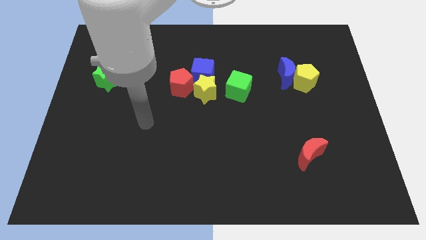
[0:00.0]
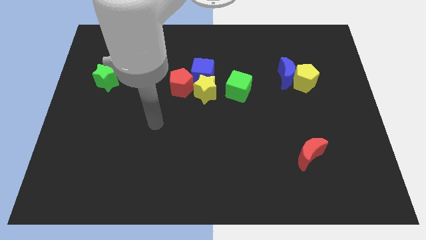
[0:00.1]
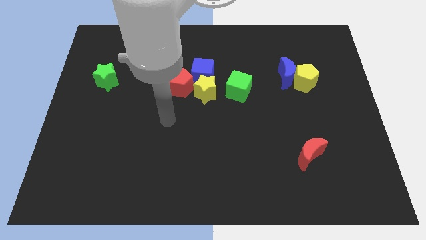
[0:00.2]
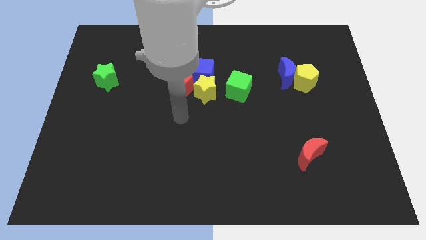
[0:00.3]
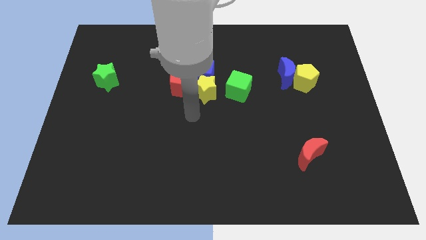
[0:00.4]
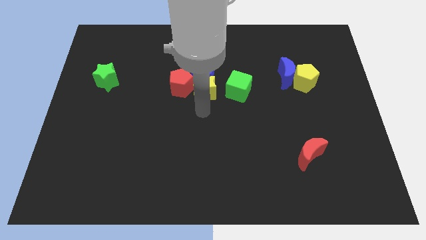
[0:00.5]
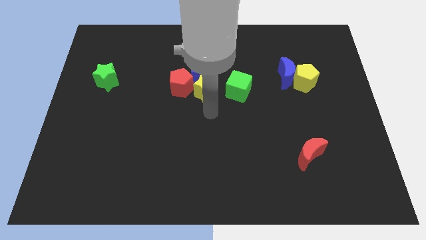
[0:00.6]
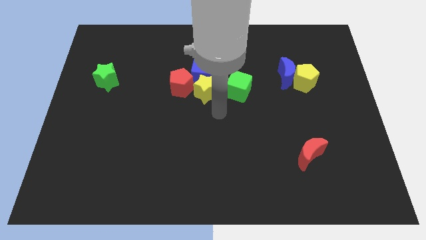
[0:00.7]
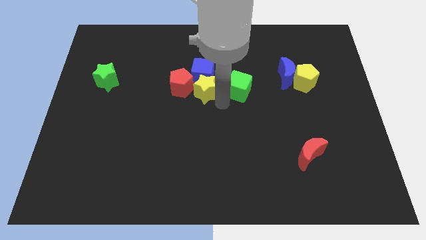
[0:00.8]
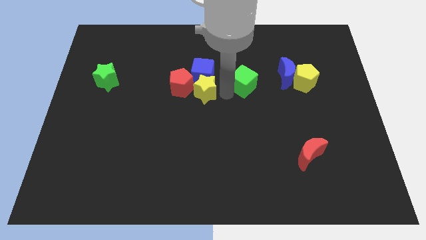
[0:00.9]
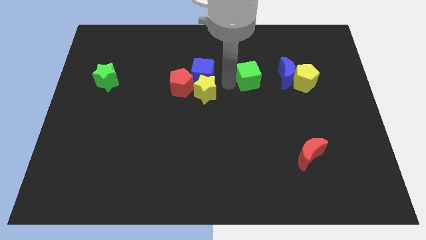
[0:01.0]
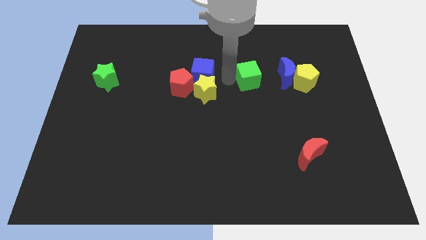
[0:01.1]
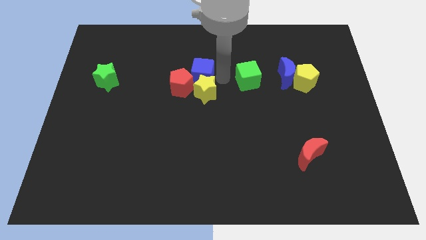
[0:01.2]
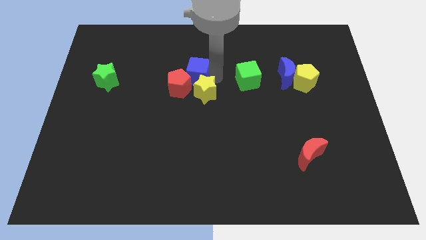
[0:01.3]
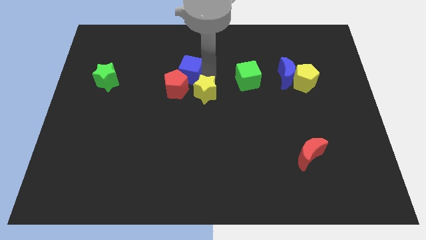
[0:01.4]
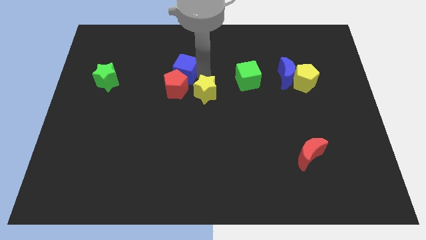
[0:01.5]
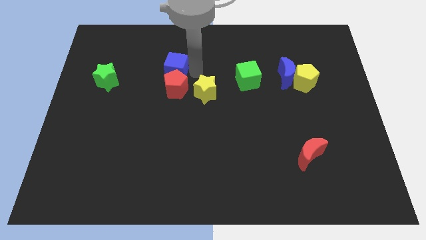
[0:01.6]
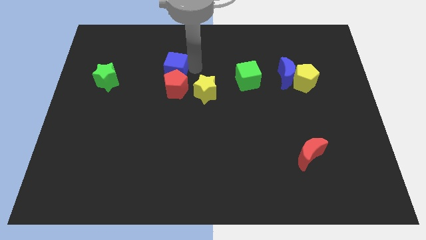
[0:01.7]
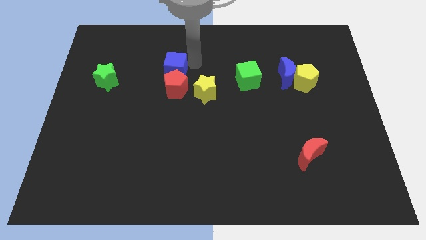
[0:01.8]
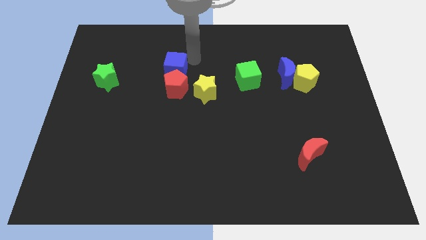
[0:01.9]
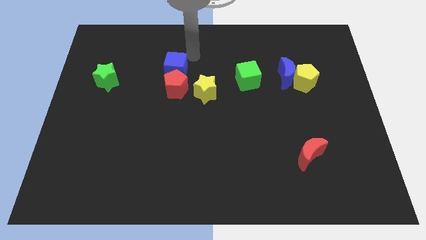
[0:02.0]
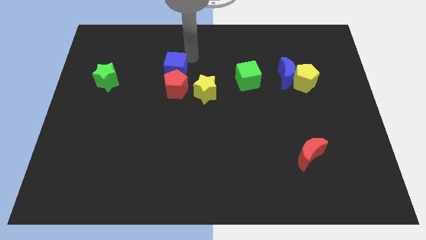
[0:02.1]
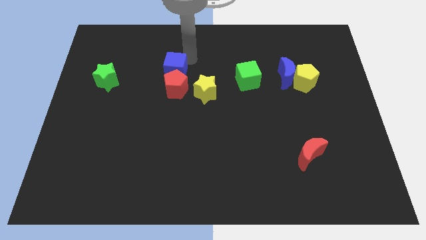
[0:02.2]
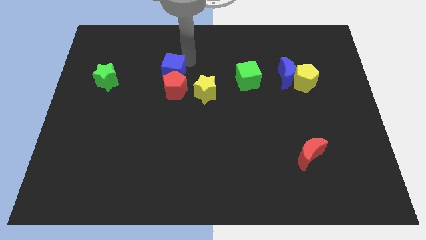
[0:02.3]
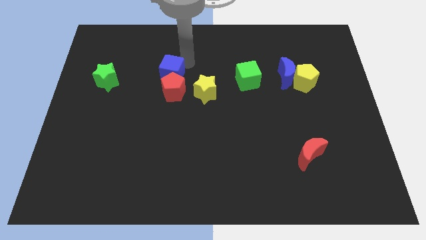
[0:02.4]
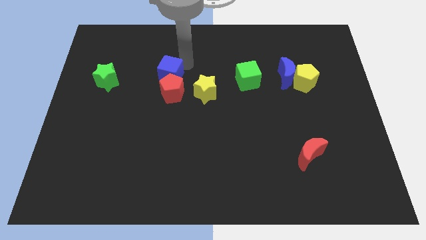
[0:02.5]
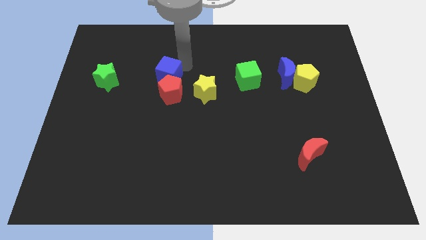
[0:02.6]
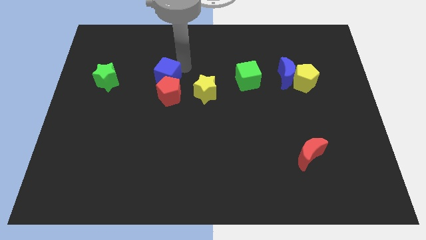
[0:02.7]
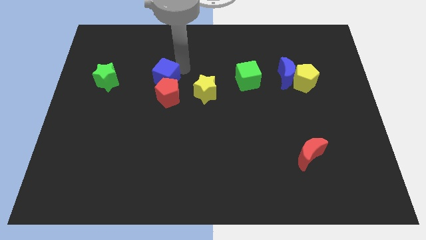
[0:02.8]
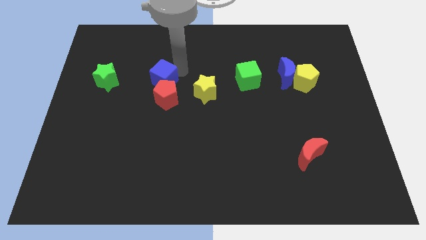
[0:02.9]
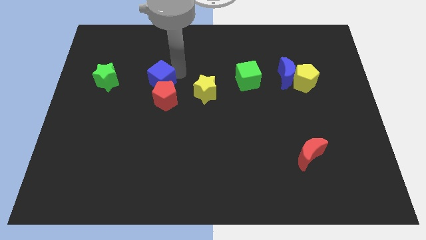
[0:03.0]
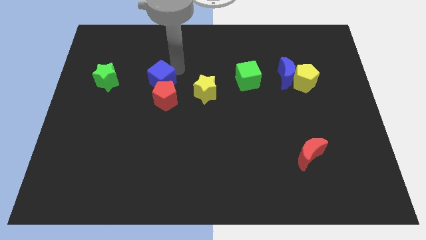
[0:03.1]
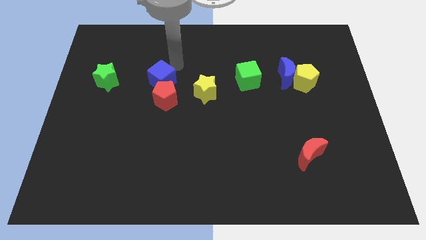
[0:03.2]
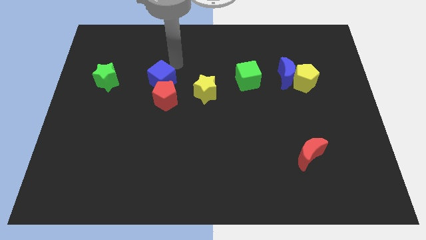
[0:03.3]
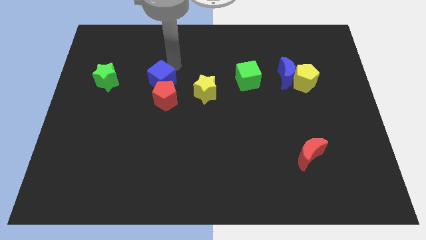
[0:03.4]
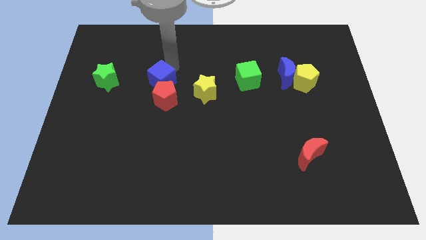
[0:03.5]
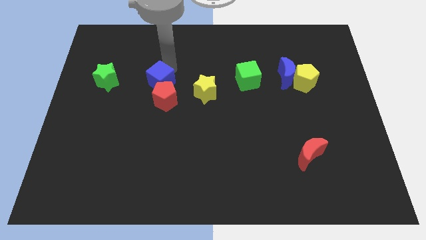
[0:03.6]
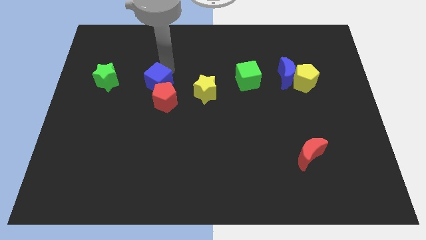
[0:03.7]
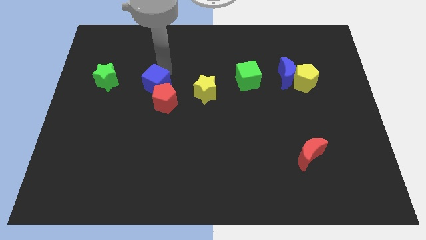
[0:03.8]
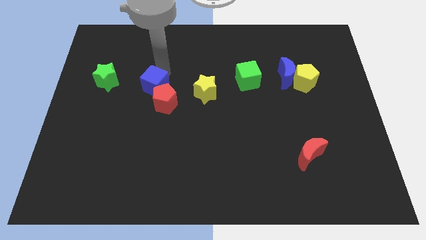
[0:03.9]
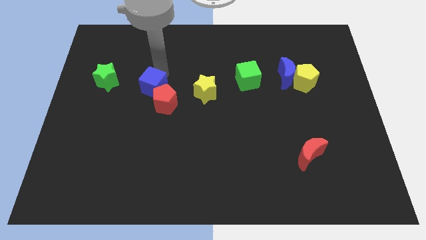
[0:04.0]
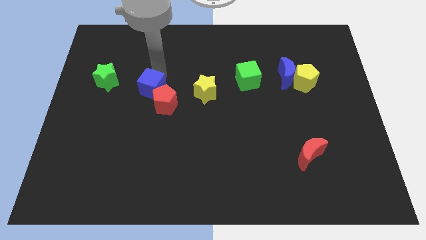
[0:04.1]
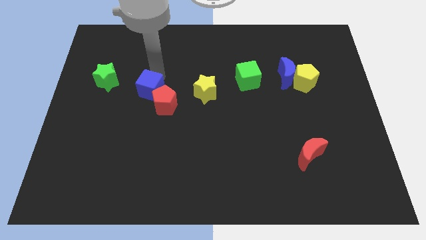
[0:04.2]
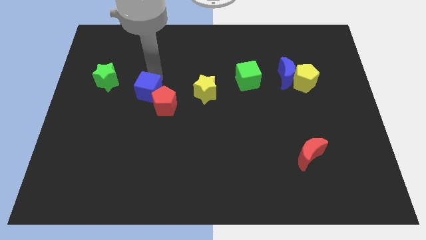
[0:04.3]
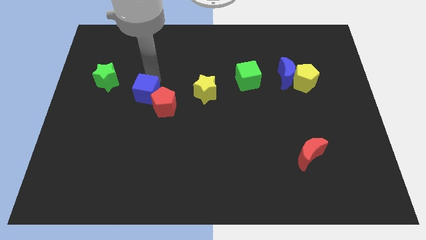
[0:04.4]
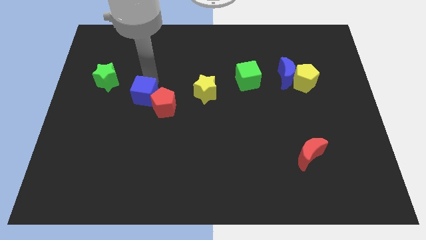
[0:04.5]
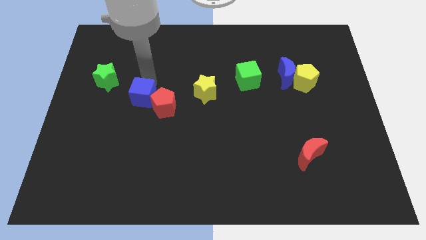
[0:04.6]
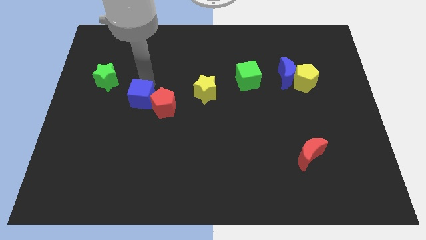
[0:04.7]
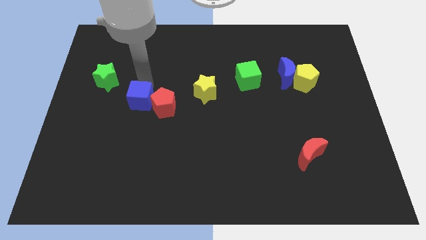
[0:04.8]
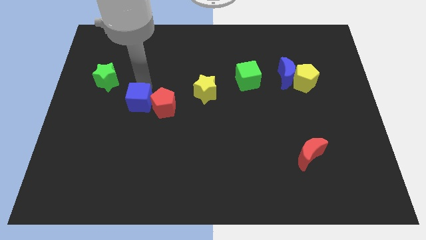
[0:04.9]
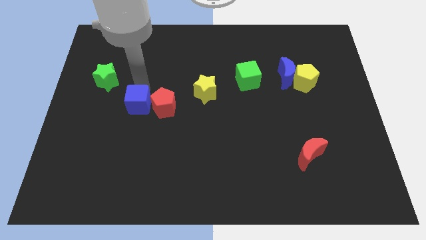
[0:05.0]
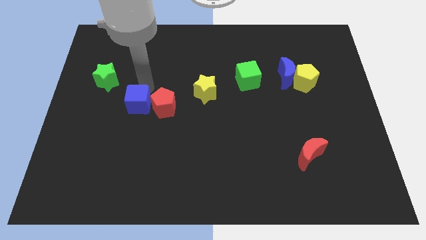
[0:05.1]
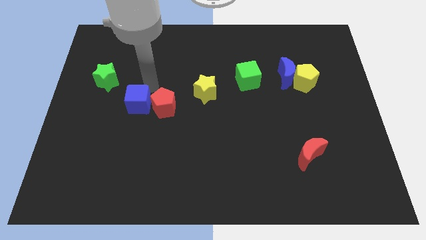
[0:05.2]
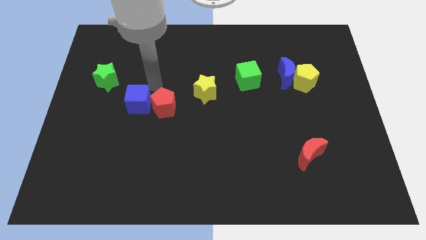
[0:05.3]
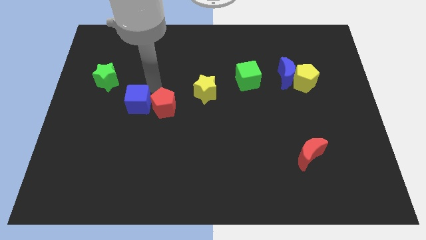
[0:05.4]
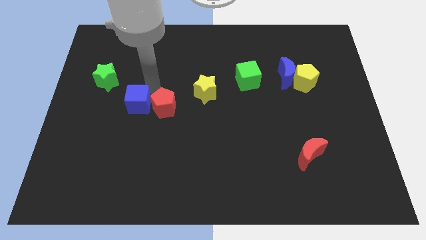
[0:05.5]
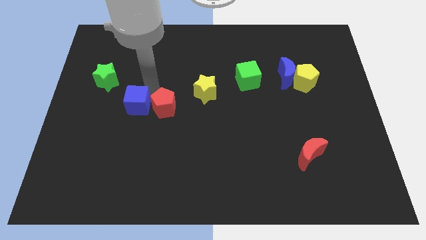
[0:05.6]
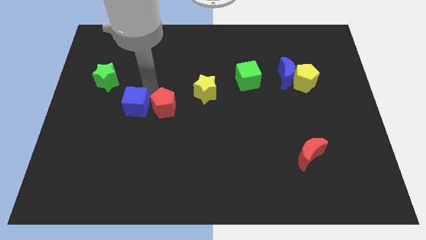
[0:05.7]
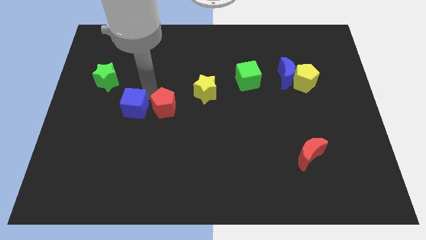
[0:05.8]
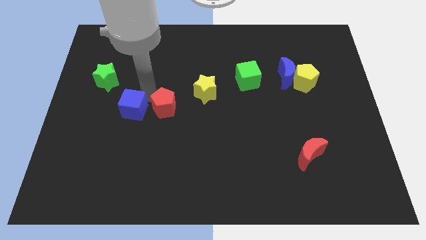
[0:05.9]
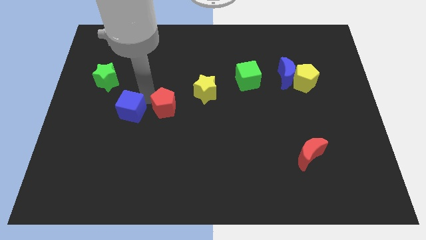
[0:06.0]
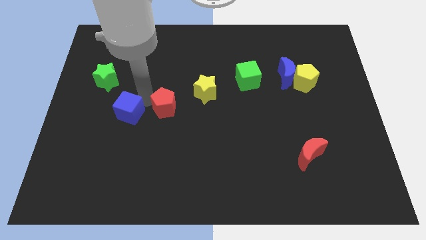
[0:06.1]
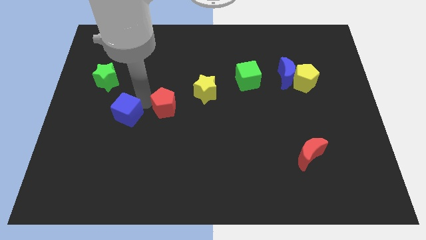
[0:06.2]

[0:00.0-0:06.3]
move the blue cube downwards and left diagonally

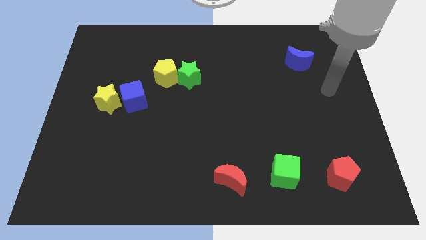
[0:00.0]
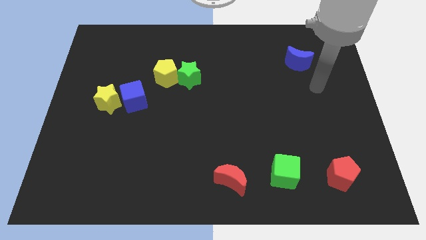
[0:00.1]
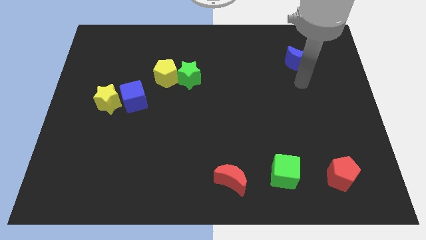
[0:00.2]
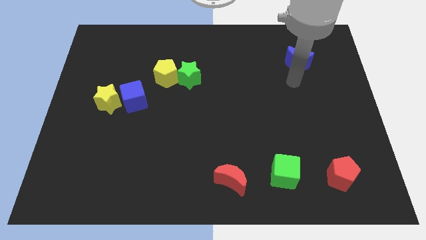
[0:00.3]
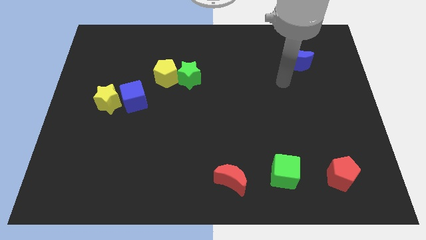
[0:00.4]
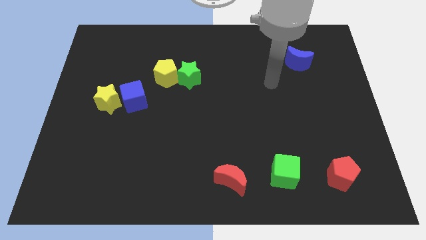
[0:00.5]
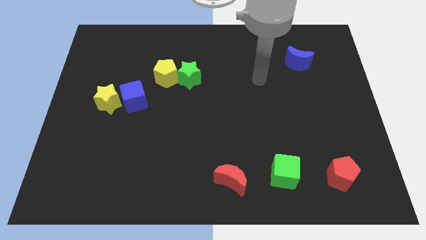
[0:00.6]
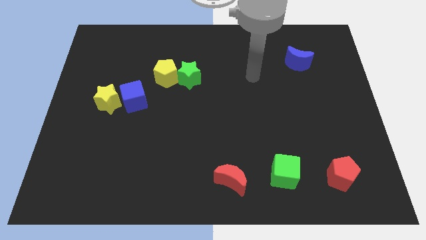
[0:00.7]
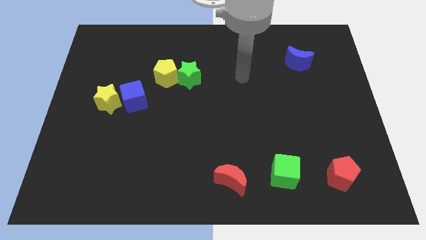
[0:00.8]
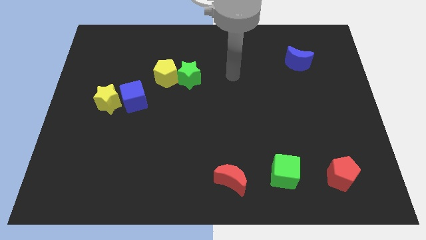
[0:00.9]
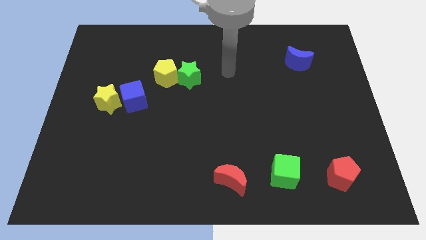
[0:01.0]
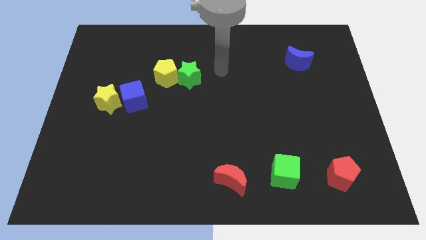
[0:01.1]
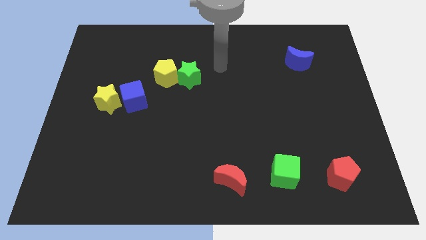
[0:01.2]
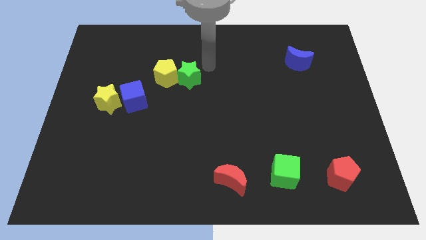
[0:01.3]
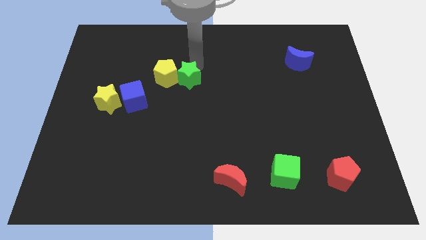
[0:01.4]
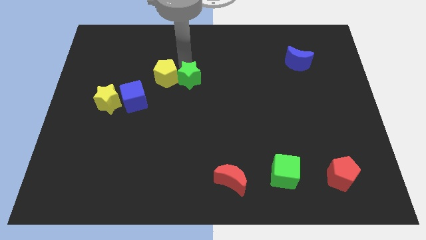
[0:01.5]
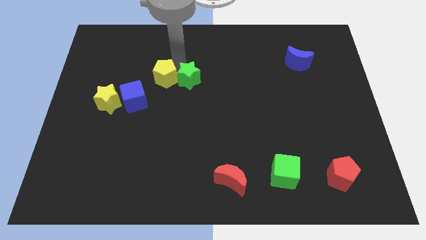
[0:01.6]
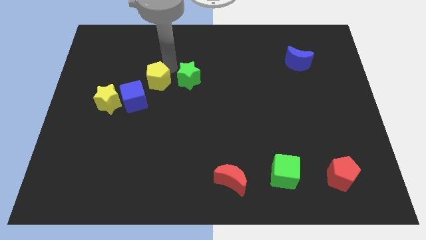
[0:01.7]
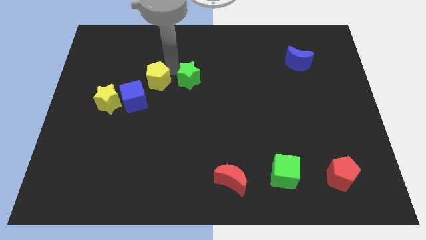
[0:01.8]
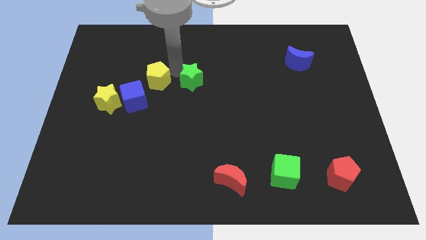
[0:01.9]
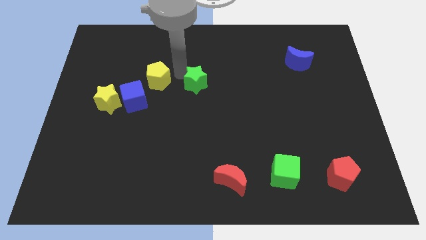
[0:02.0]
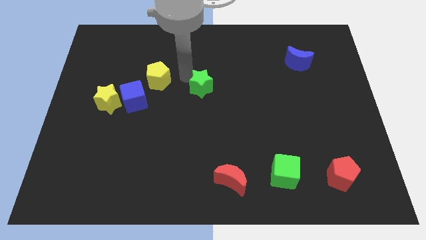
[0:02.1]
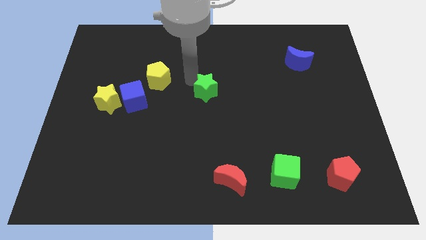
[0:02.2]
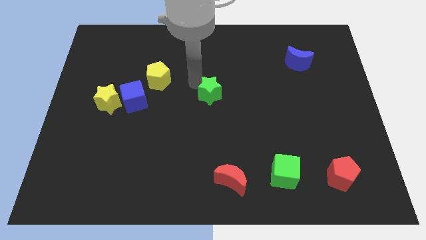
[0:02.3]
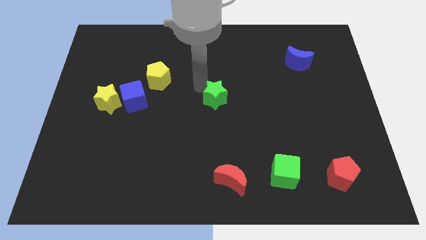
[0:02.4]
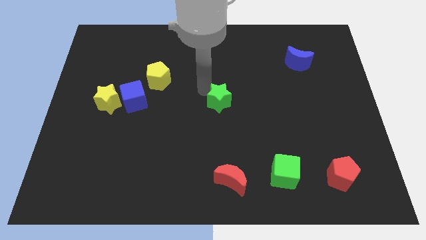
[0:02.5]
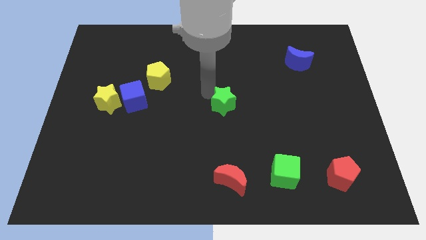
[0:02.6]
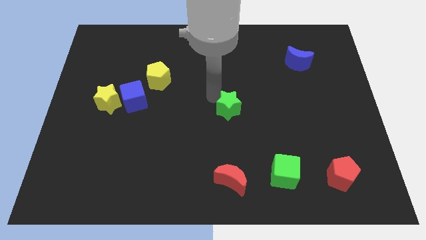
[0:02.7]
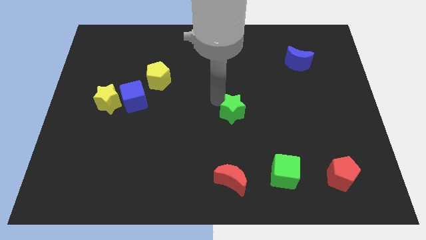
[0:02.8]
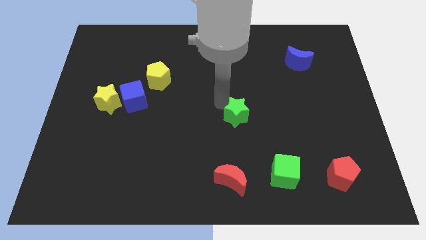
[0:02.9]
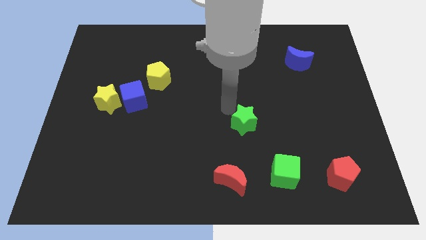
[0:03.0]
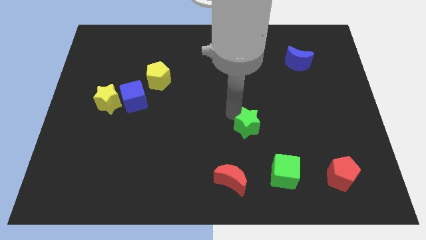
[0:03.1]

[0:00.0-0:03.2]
move the green star diagonally downwards and right
